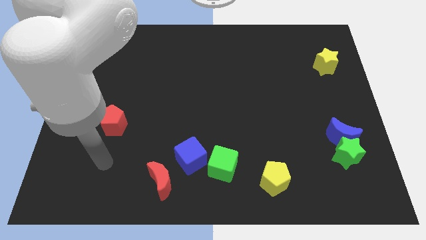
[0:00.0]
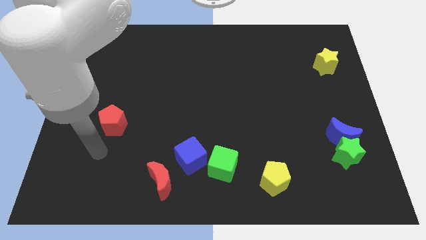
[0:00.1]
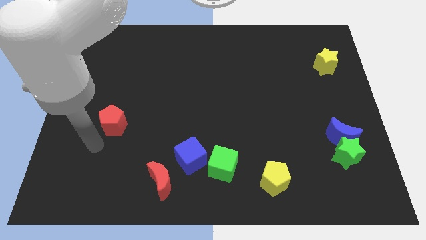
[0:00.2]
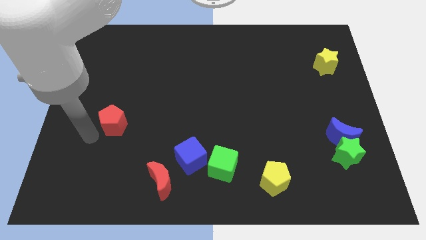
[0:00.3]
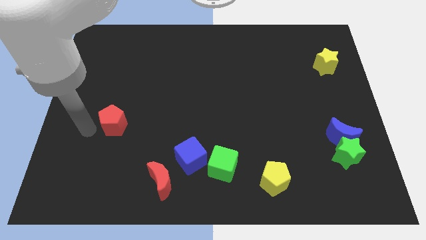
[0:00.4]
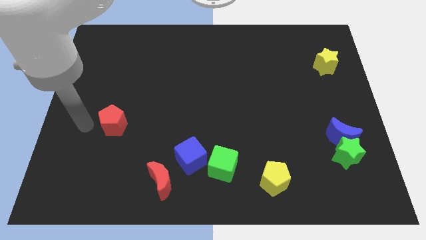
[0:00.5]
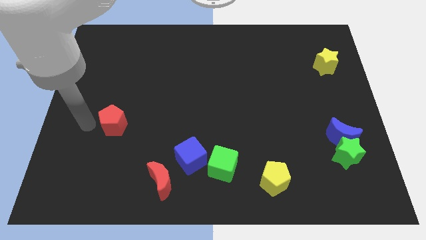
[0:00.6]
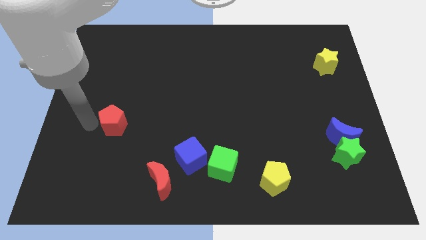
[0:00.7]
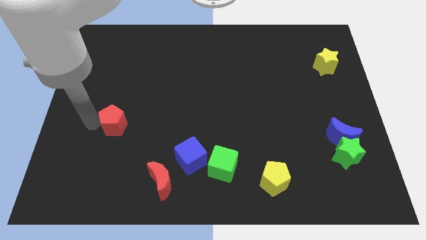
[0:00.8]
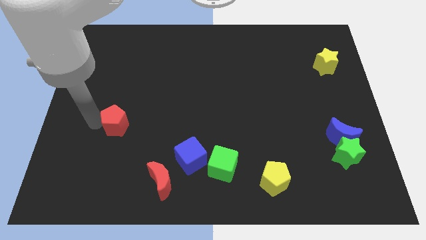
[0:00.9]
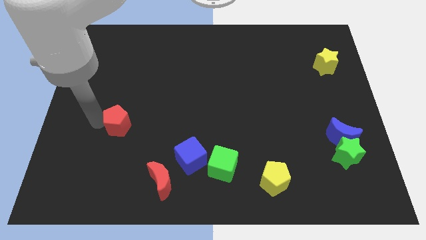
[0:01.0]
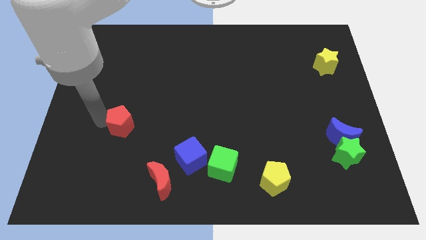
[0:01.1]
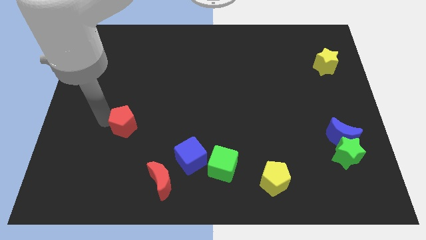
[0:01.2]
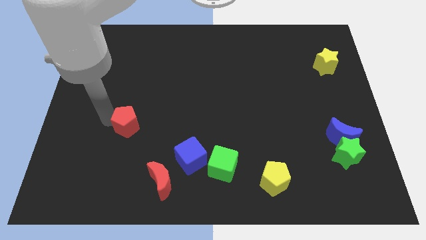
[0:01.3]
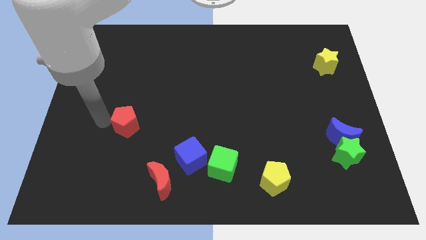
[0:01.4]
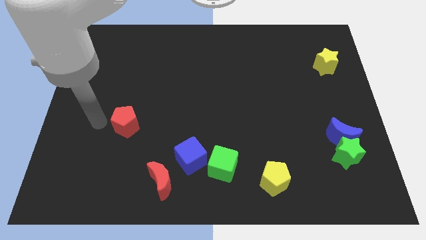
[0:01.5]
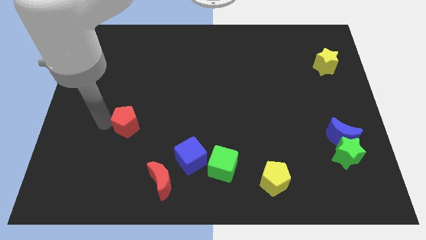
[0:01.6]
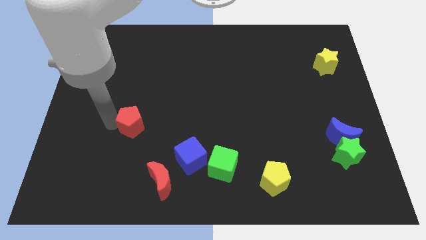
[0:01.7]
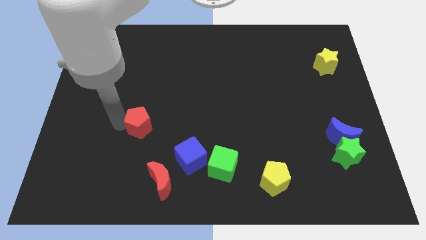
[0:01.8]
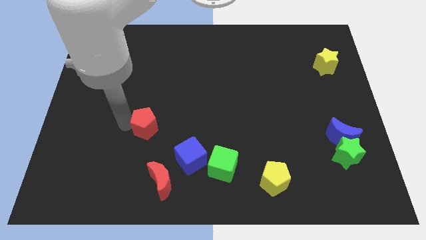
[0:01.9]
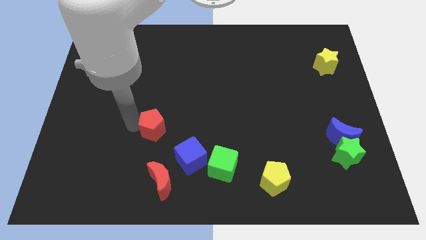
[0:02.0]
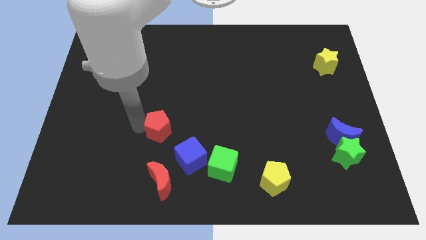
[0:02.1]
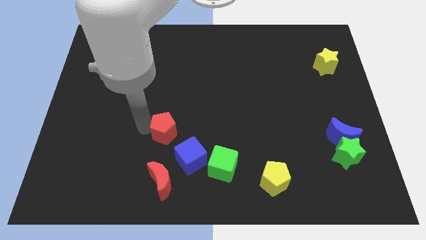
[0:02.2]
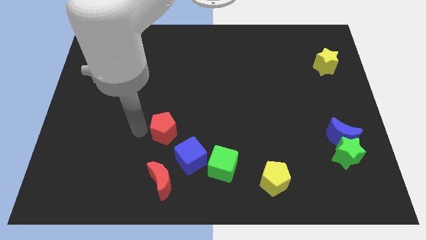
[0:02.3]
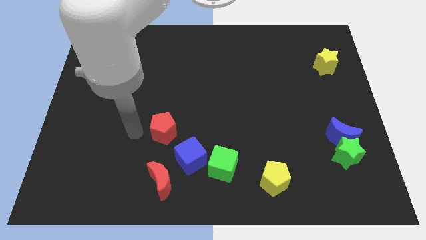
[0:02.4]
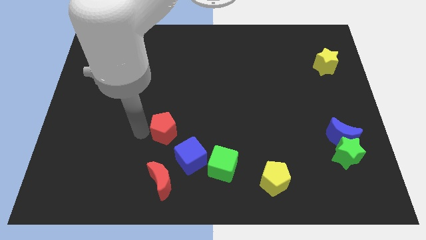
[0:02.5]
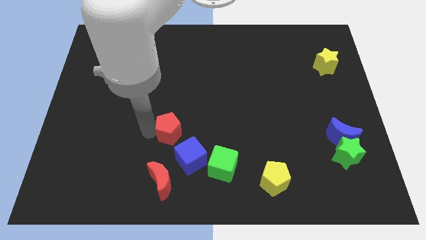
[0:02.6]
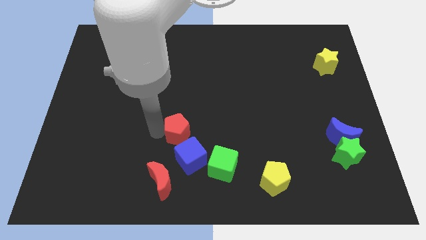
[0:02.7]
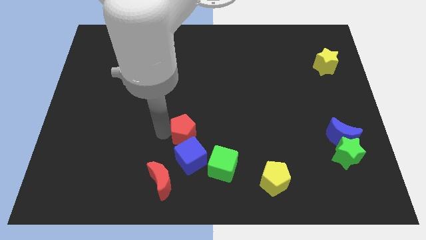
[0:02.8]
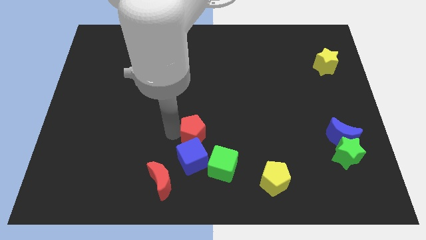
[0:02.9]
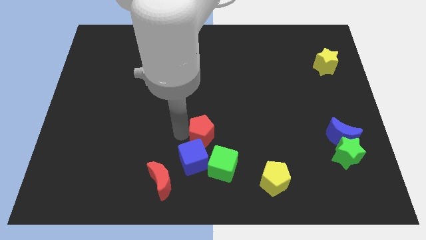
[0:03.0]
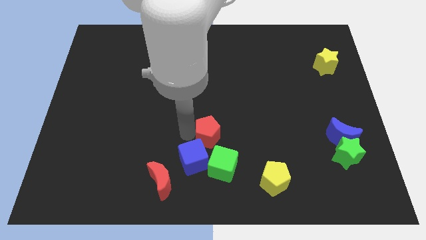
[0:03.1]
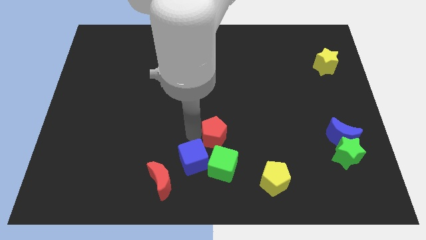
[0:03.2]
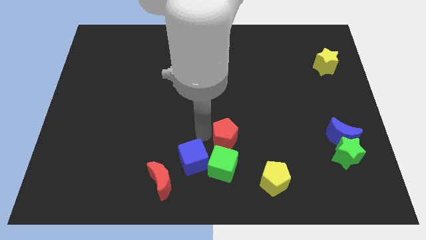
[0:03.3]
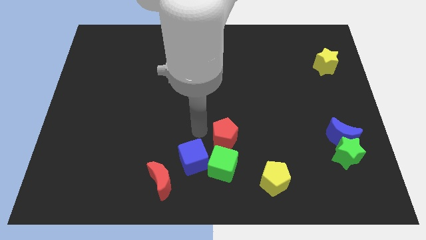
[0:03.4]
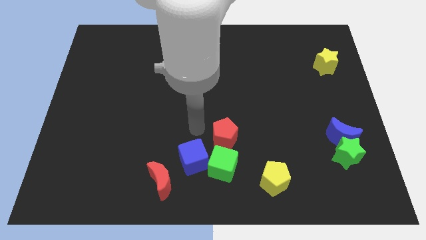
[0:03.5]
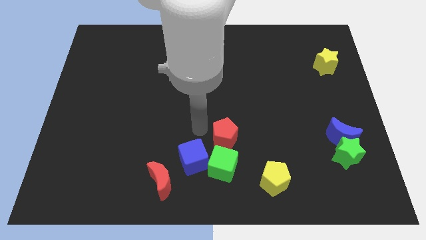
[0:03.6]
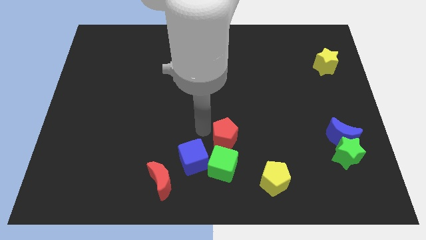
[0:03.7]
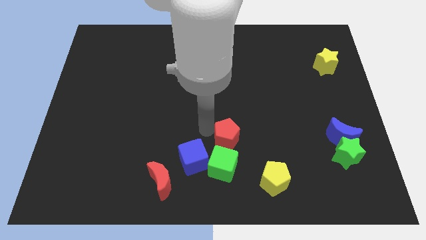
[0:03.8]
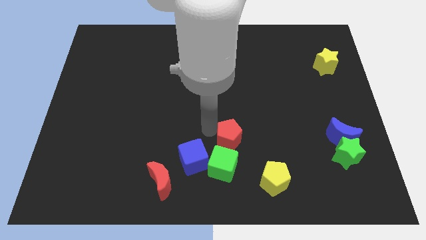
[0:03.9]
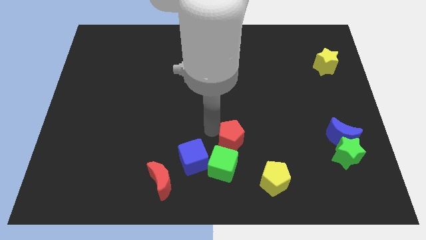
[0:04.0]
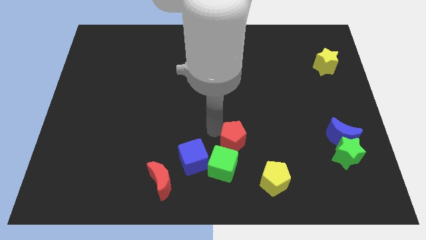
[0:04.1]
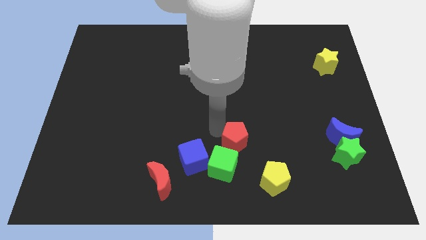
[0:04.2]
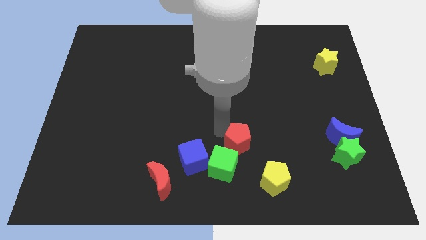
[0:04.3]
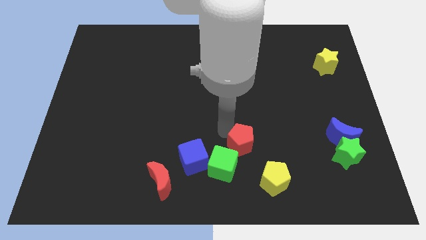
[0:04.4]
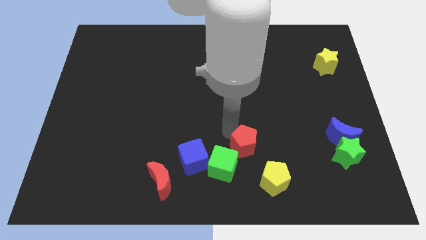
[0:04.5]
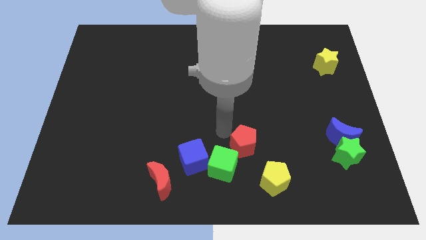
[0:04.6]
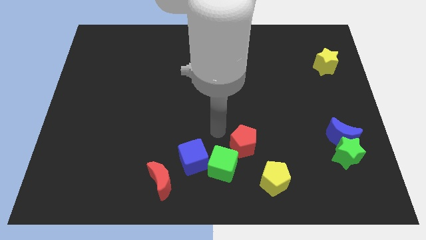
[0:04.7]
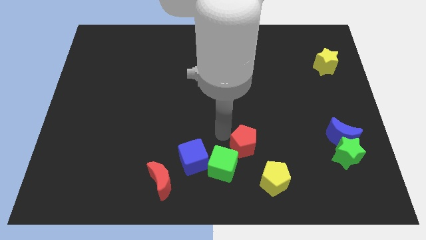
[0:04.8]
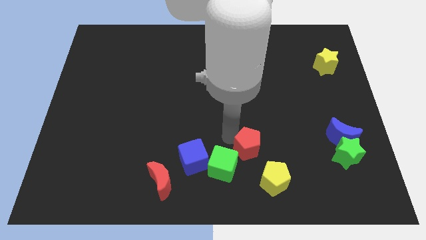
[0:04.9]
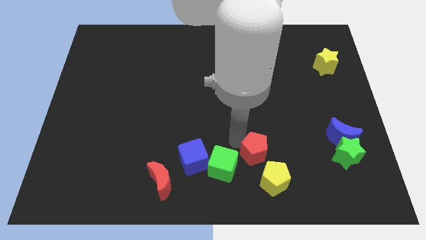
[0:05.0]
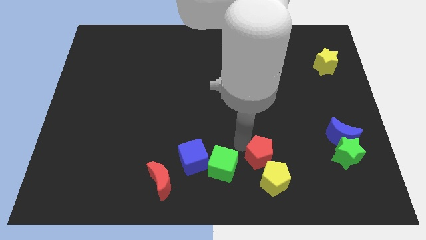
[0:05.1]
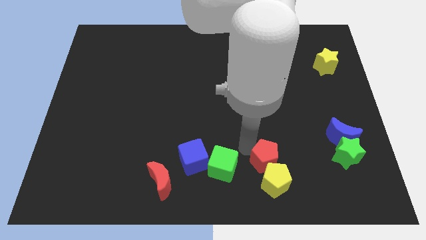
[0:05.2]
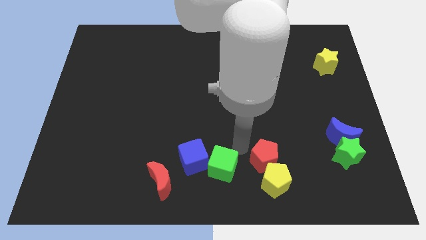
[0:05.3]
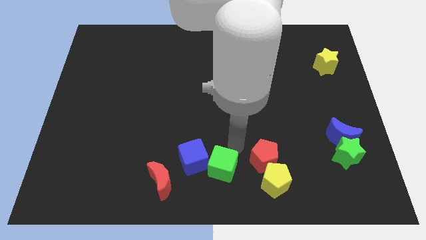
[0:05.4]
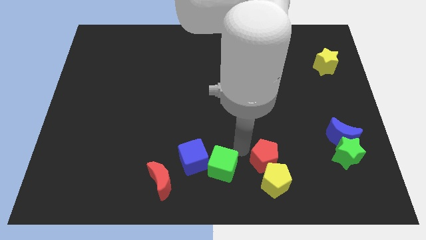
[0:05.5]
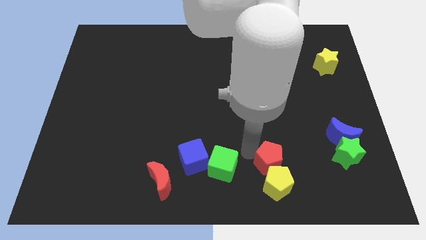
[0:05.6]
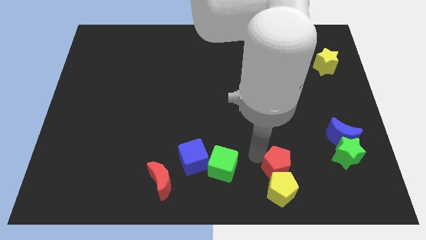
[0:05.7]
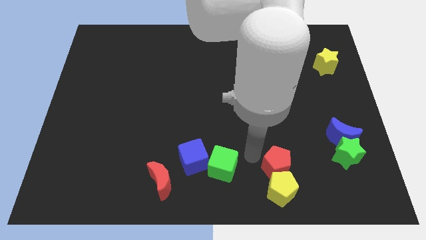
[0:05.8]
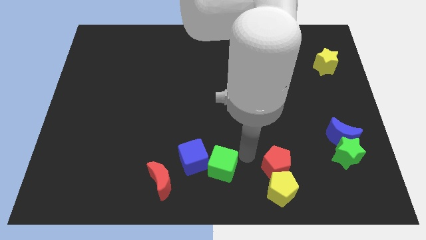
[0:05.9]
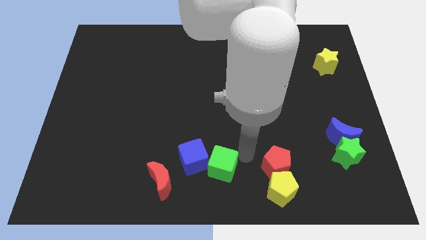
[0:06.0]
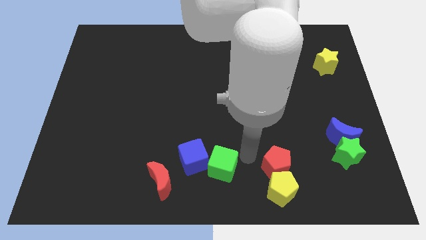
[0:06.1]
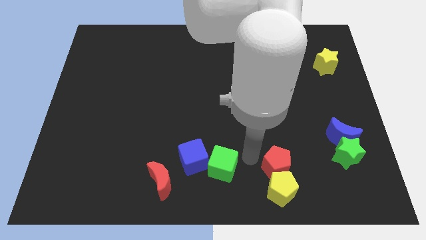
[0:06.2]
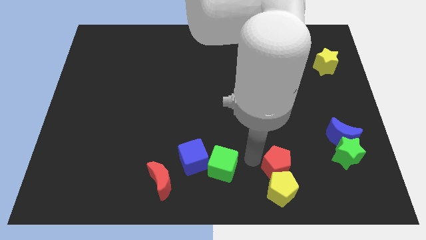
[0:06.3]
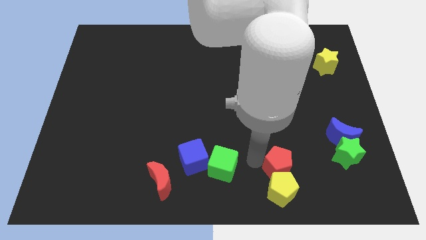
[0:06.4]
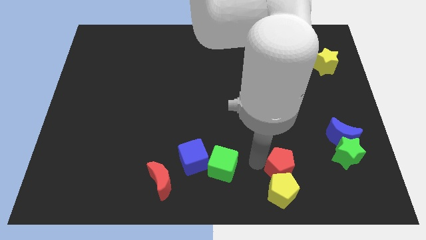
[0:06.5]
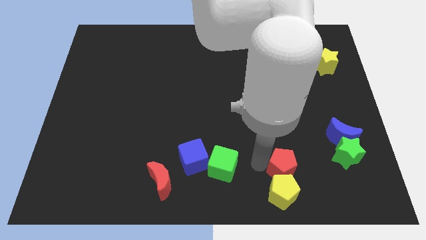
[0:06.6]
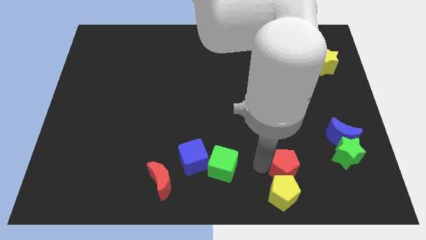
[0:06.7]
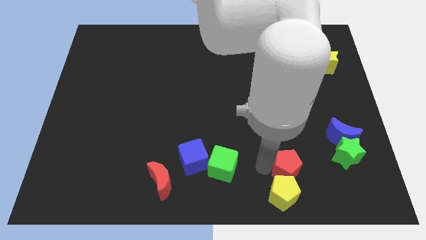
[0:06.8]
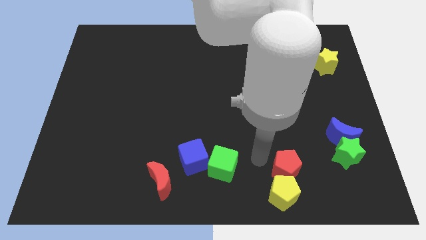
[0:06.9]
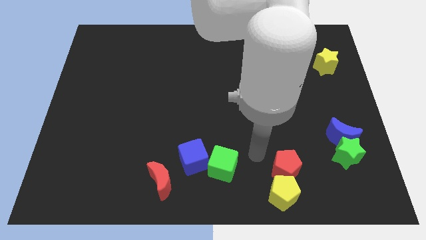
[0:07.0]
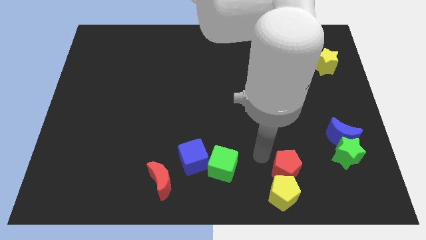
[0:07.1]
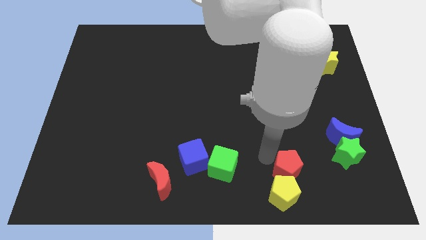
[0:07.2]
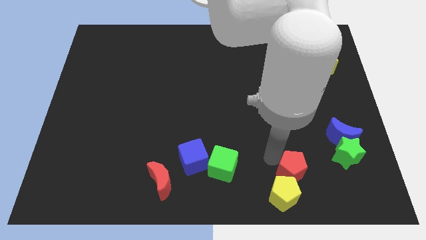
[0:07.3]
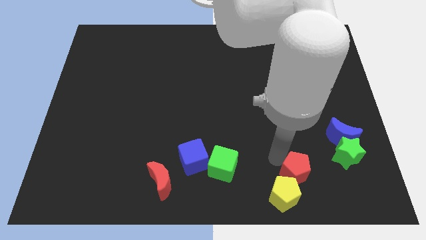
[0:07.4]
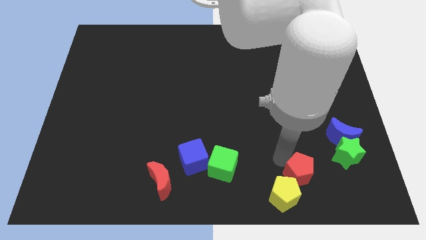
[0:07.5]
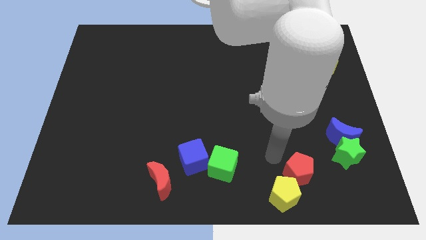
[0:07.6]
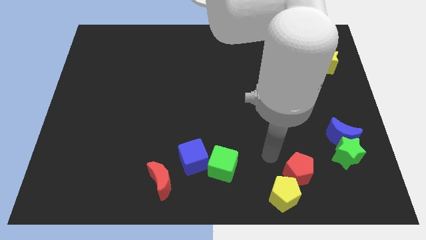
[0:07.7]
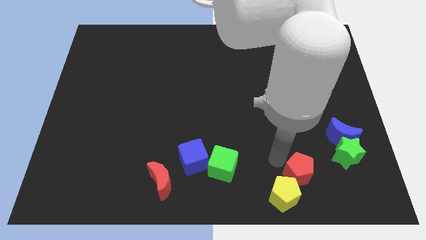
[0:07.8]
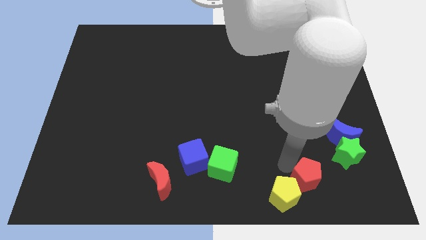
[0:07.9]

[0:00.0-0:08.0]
put the red pentagon just right of the yellow pentagon
